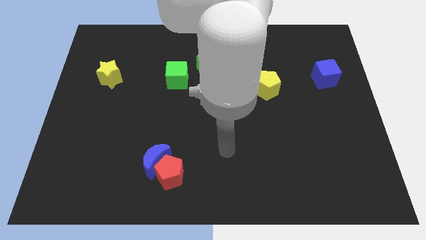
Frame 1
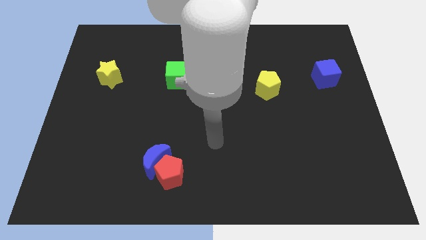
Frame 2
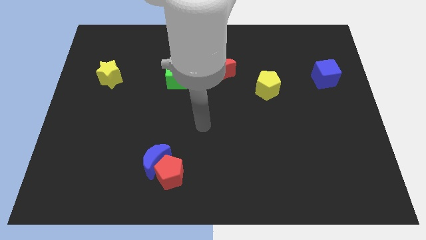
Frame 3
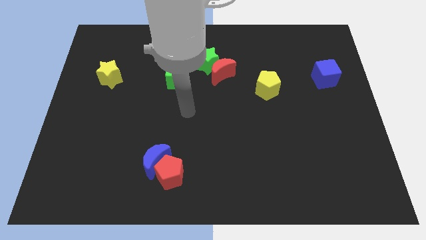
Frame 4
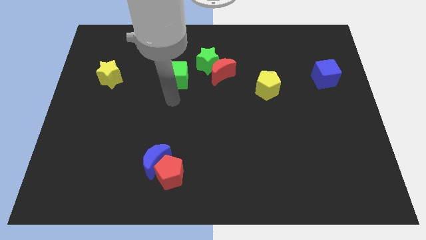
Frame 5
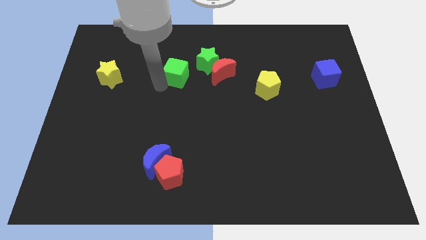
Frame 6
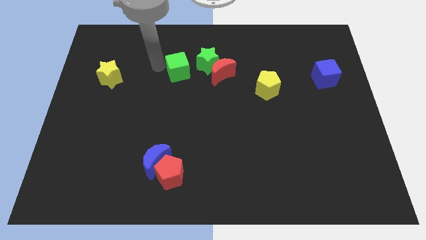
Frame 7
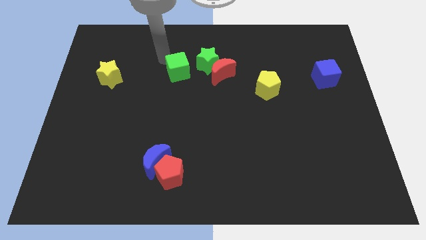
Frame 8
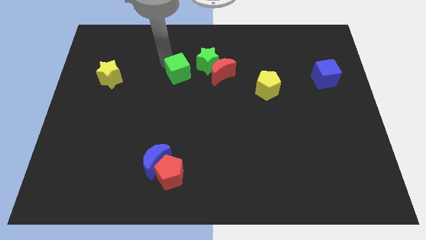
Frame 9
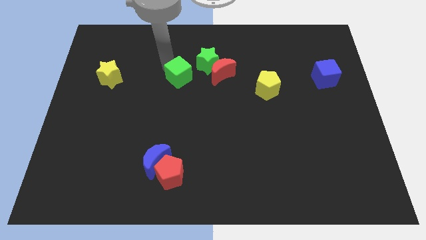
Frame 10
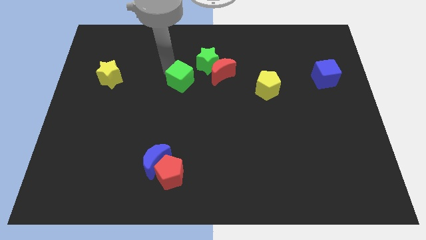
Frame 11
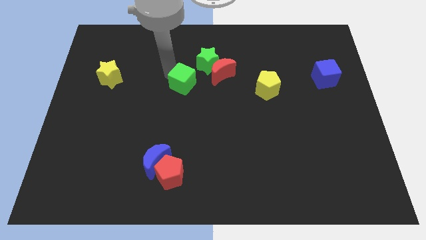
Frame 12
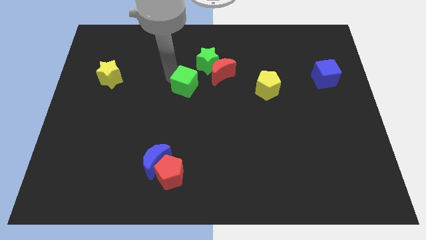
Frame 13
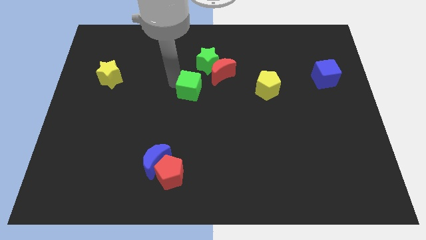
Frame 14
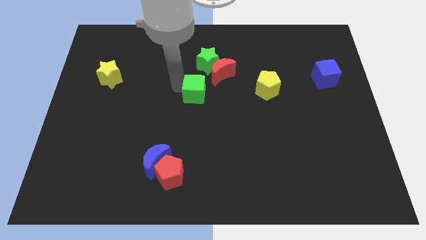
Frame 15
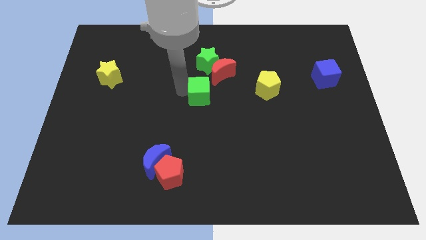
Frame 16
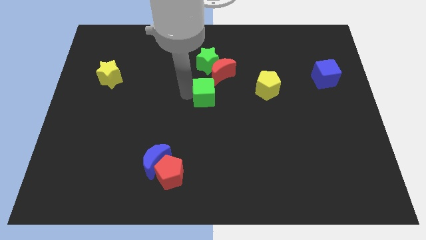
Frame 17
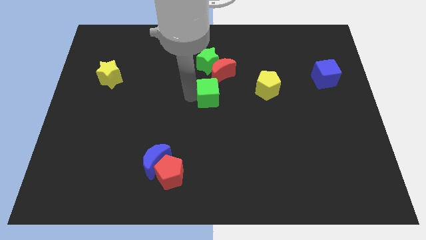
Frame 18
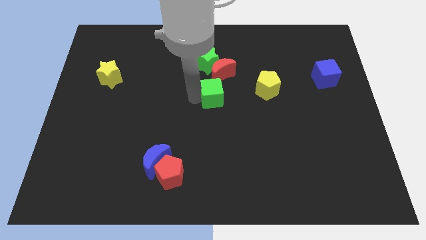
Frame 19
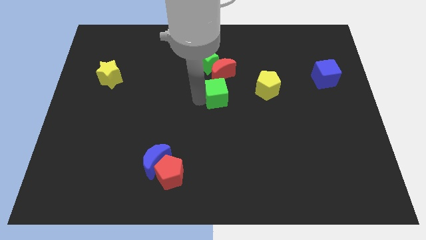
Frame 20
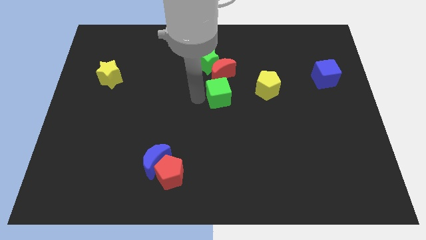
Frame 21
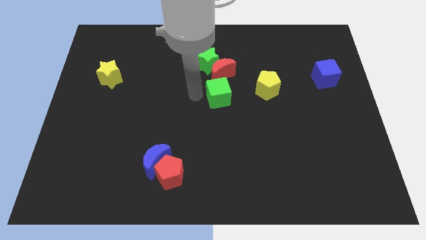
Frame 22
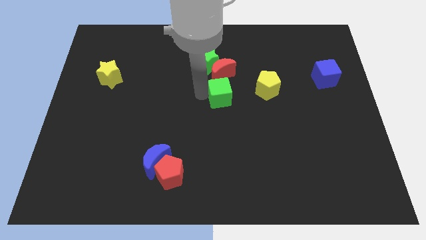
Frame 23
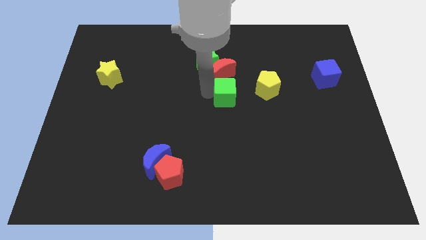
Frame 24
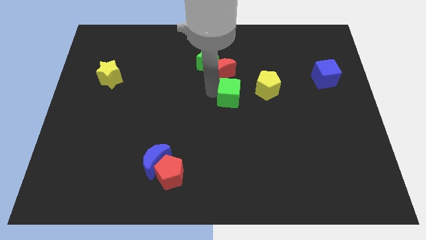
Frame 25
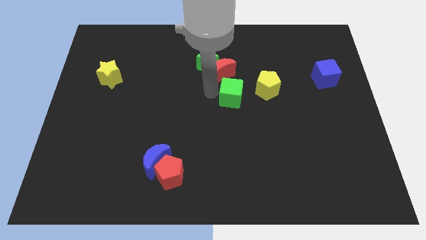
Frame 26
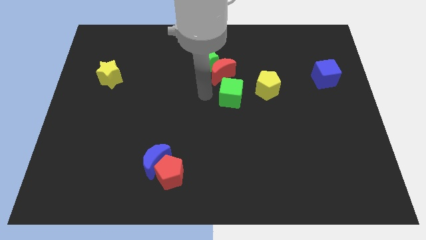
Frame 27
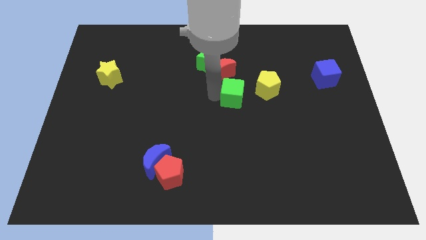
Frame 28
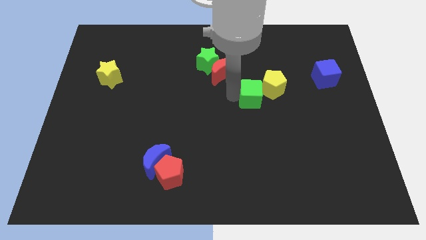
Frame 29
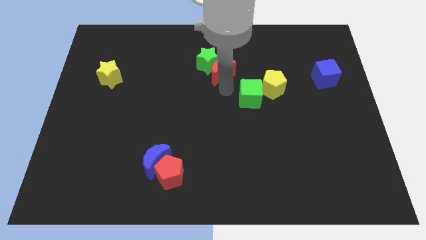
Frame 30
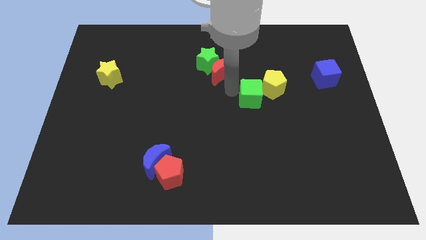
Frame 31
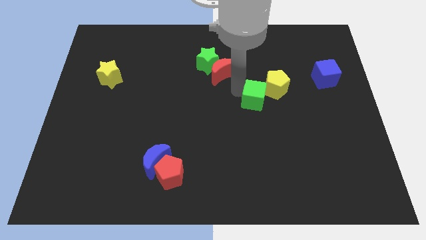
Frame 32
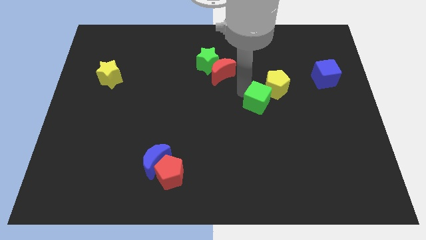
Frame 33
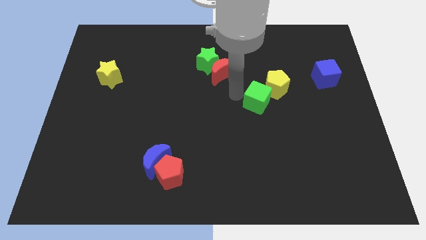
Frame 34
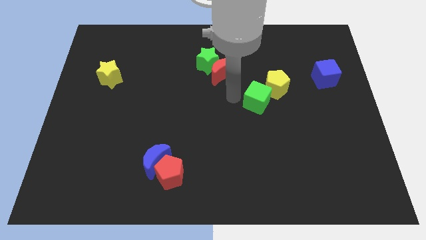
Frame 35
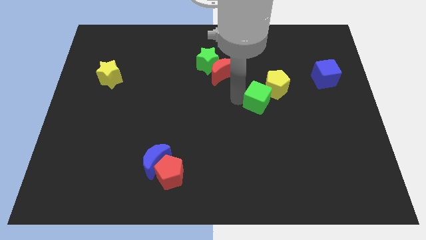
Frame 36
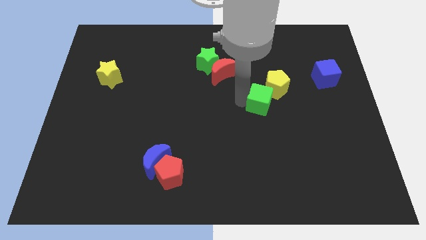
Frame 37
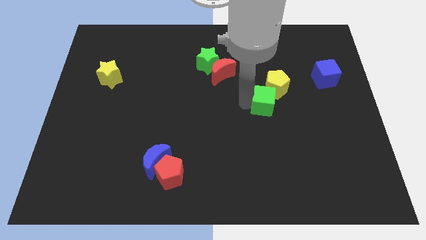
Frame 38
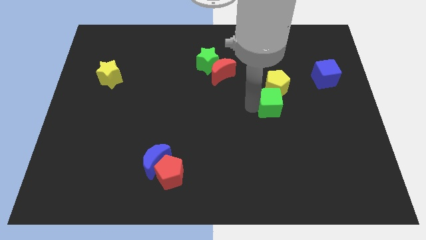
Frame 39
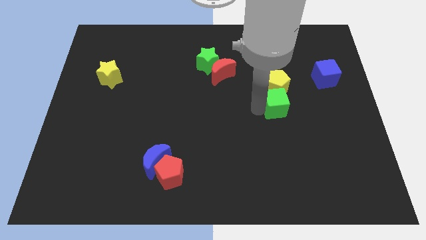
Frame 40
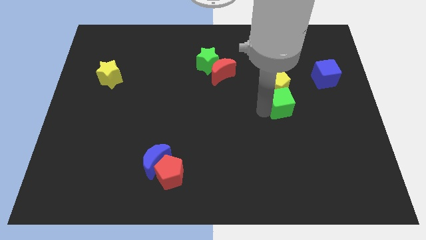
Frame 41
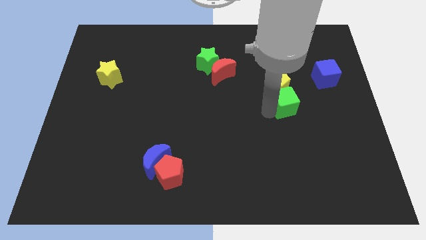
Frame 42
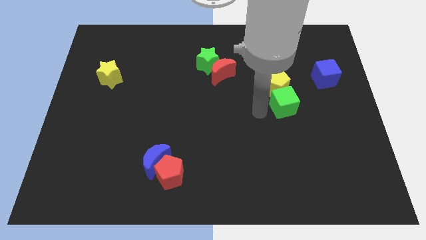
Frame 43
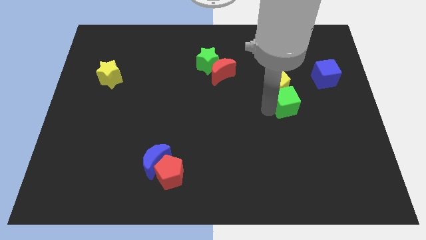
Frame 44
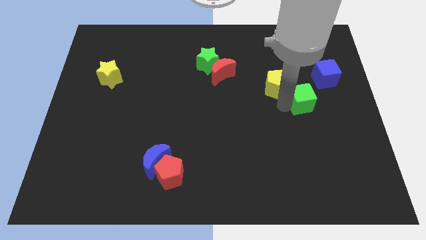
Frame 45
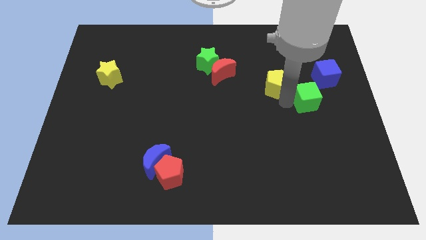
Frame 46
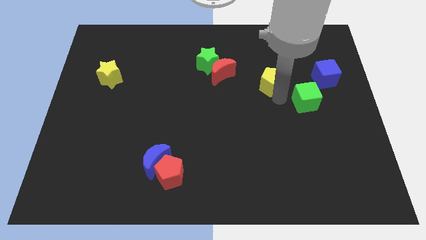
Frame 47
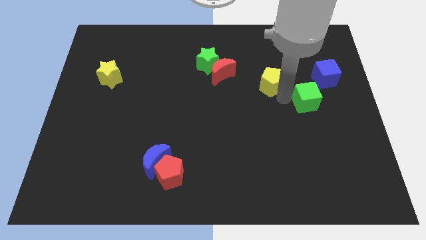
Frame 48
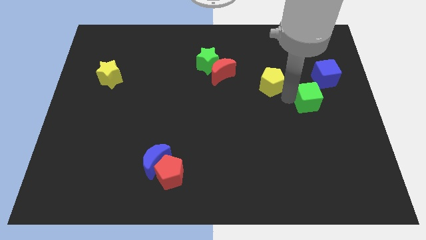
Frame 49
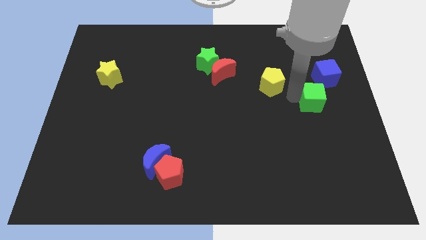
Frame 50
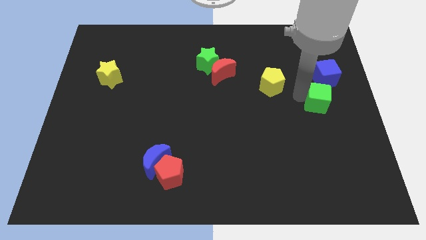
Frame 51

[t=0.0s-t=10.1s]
slide the green cube to the right side

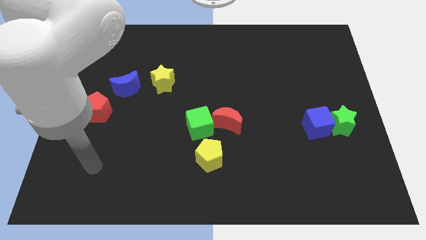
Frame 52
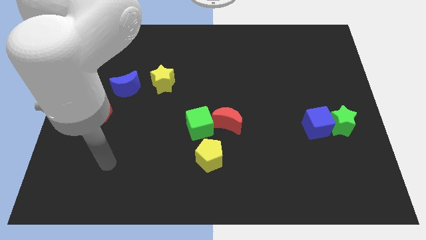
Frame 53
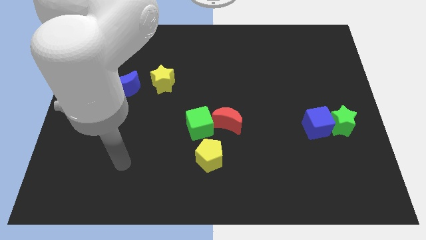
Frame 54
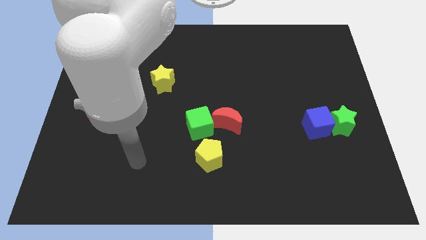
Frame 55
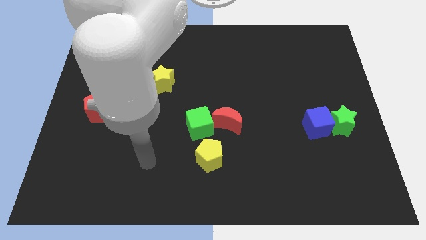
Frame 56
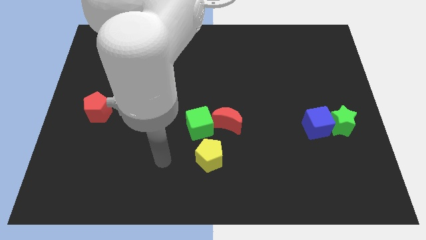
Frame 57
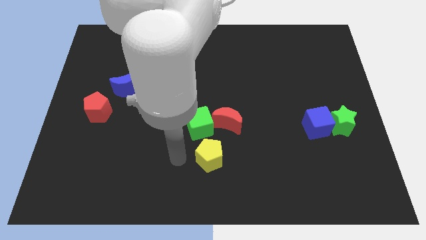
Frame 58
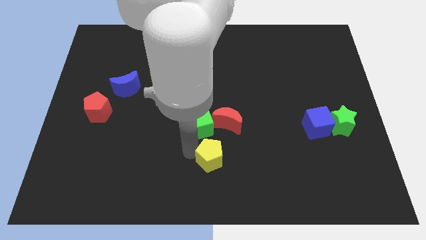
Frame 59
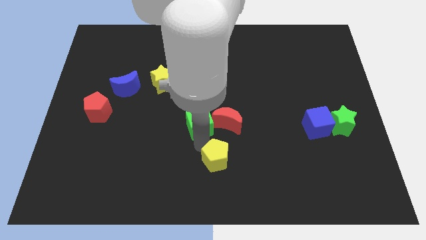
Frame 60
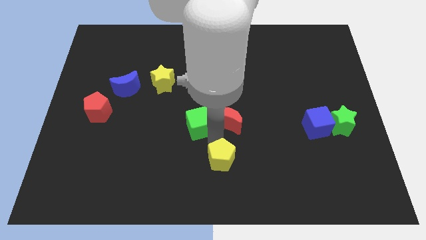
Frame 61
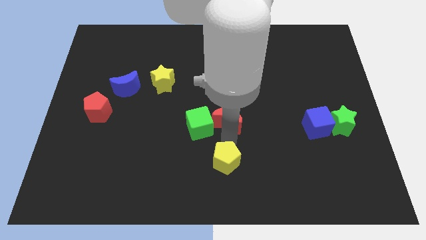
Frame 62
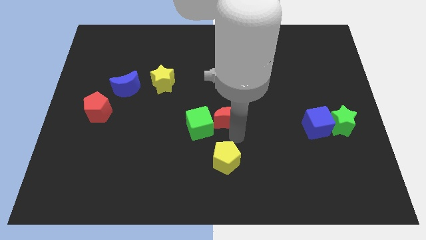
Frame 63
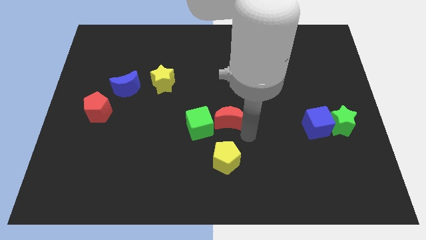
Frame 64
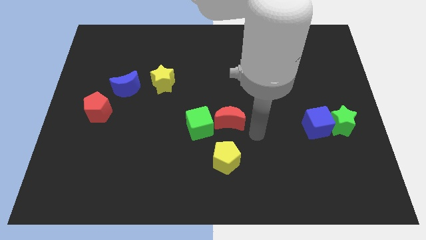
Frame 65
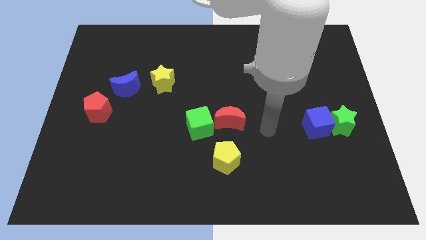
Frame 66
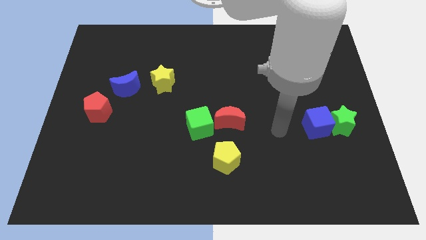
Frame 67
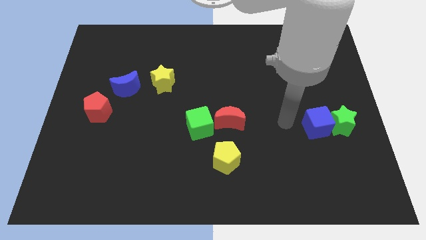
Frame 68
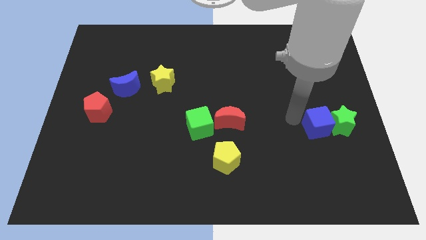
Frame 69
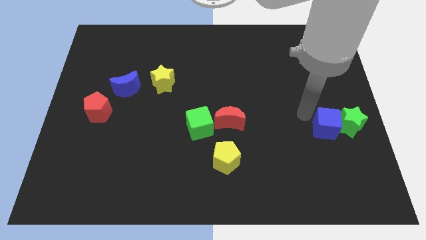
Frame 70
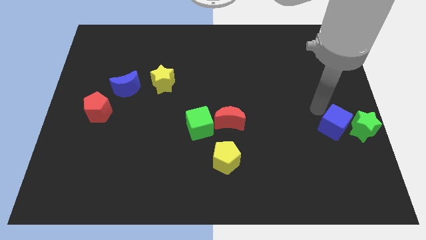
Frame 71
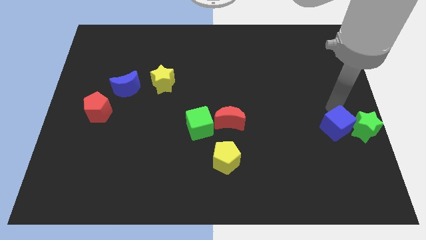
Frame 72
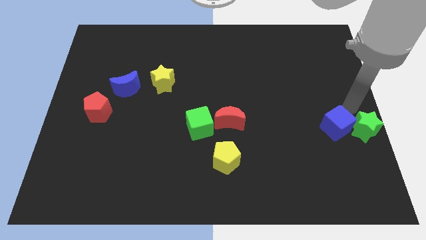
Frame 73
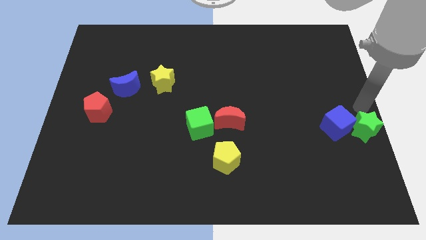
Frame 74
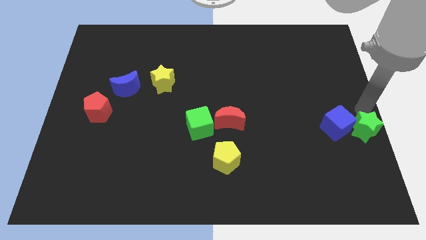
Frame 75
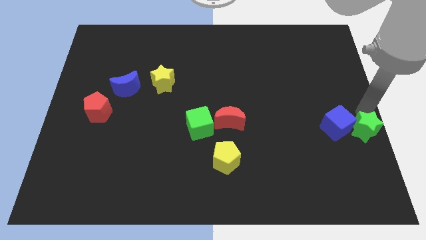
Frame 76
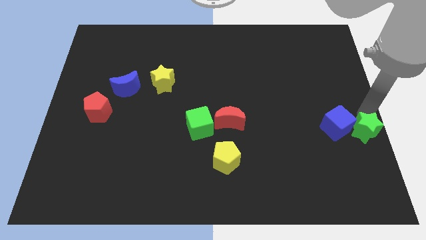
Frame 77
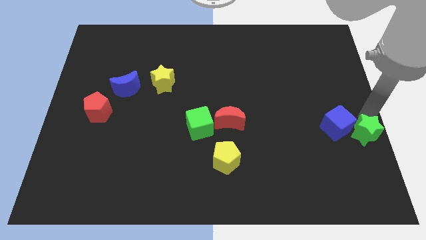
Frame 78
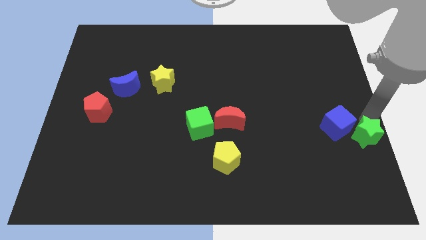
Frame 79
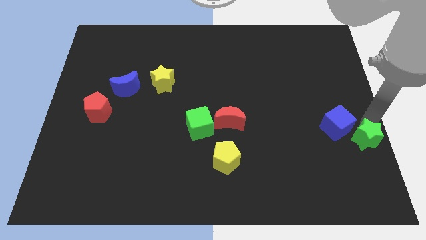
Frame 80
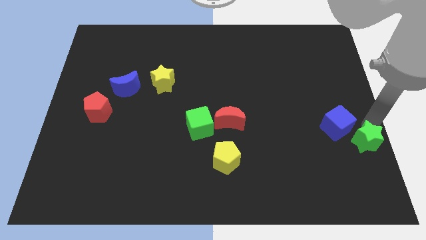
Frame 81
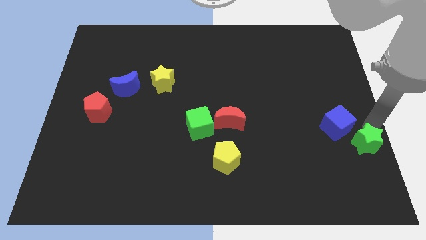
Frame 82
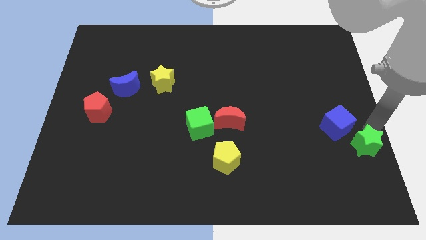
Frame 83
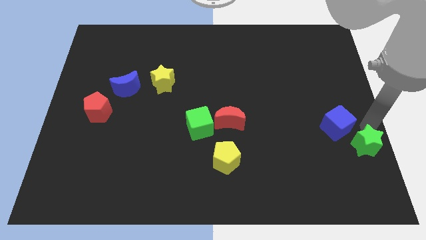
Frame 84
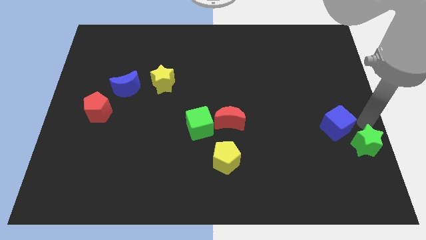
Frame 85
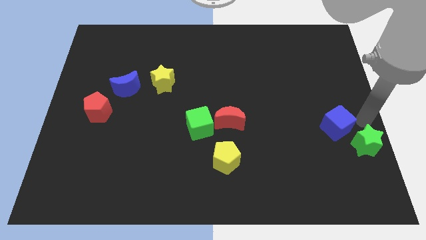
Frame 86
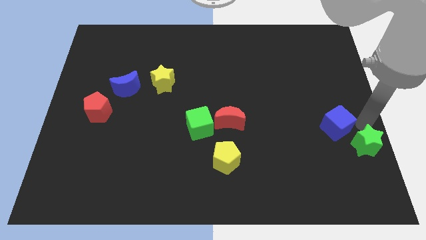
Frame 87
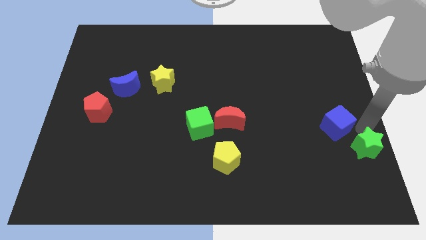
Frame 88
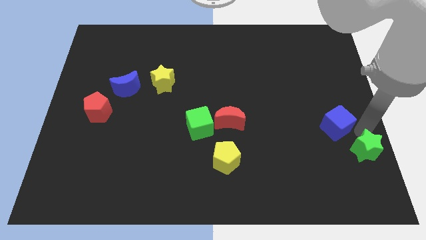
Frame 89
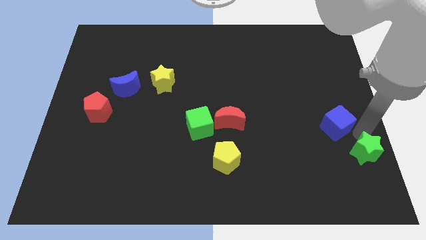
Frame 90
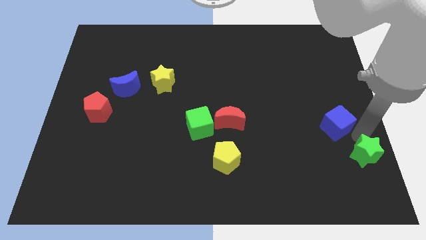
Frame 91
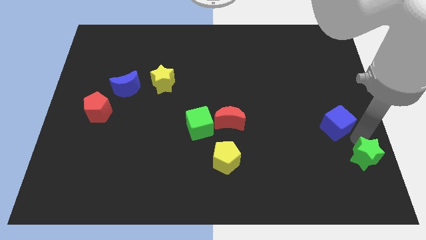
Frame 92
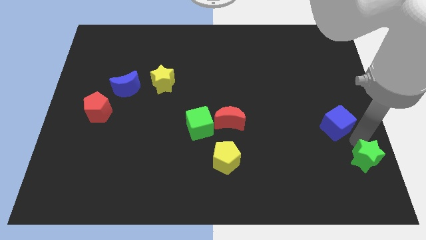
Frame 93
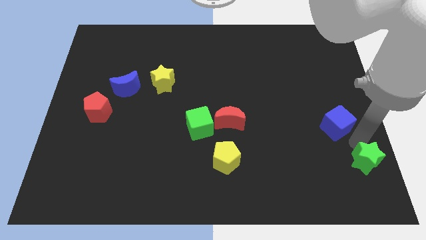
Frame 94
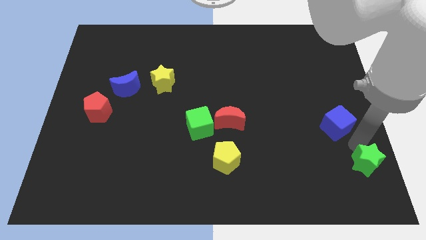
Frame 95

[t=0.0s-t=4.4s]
move the green star to the bottom right of the board
